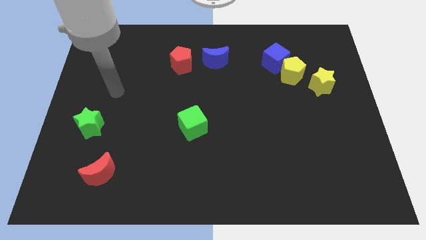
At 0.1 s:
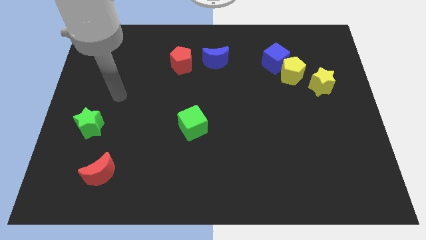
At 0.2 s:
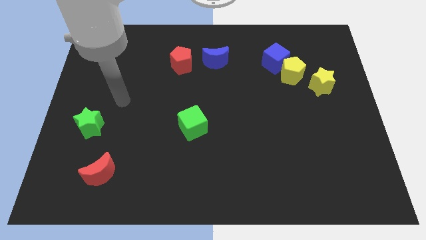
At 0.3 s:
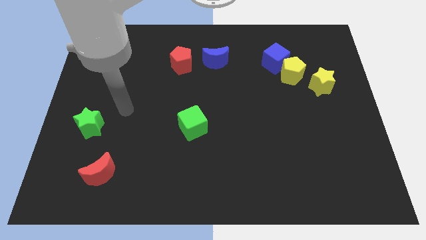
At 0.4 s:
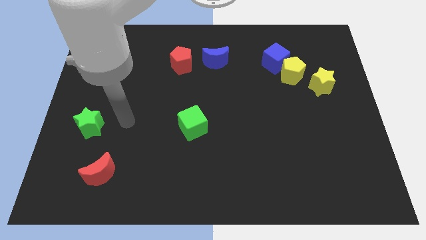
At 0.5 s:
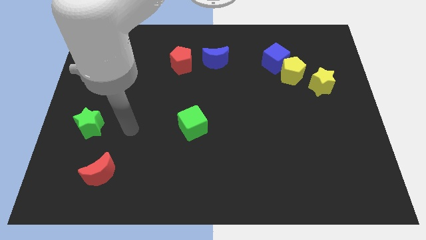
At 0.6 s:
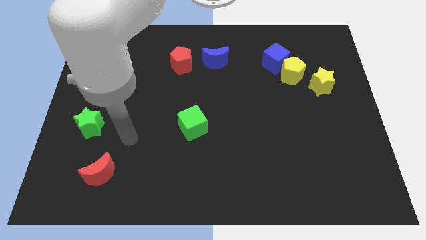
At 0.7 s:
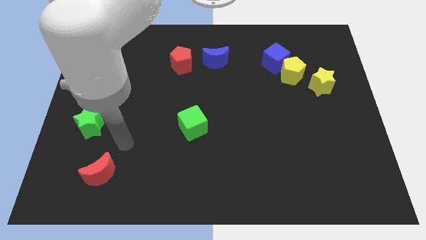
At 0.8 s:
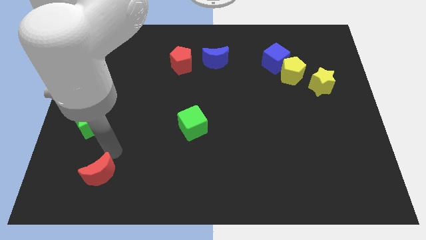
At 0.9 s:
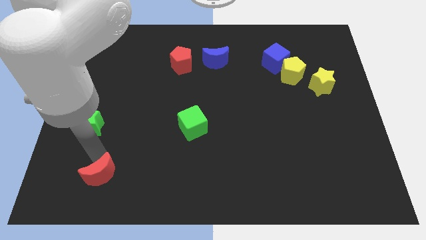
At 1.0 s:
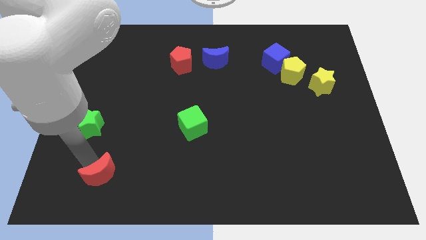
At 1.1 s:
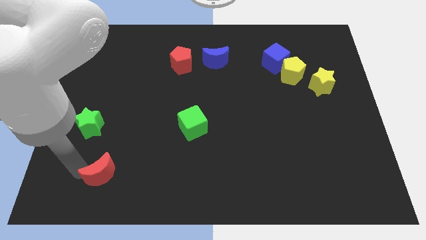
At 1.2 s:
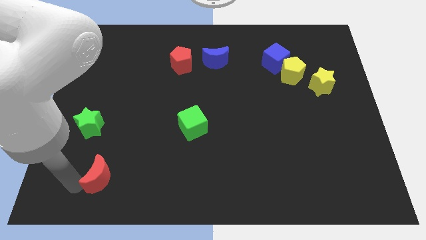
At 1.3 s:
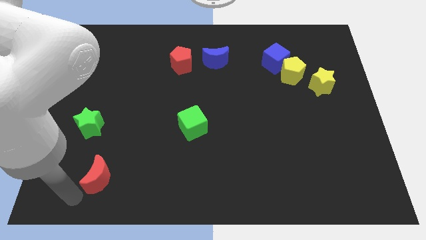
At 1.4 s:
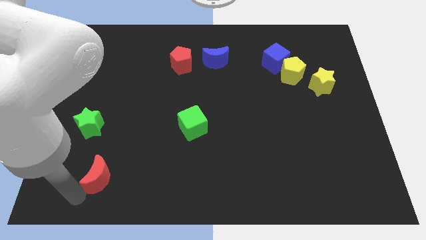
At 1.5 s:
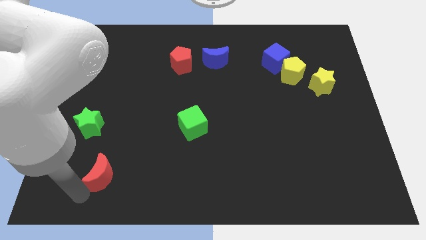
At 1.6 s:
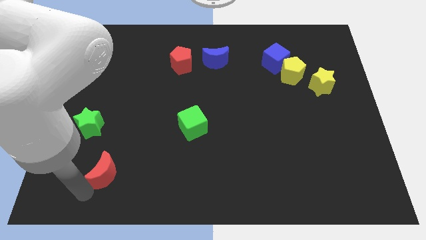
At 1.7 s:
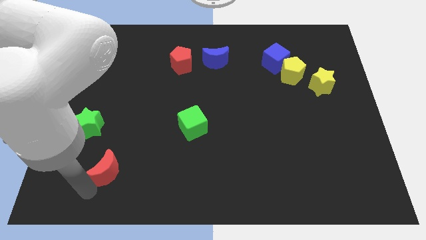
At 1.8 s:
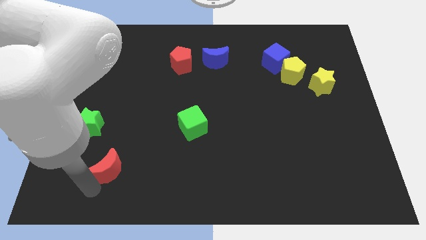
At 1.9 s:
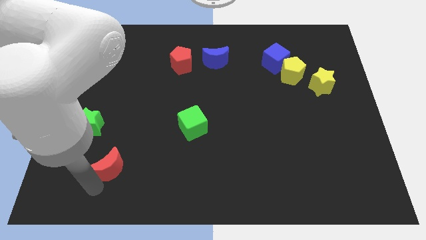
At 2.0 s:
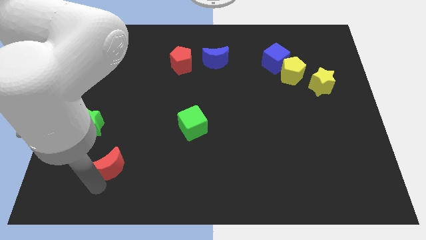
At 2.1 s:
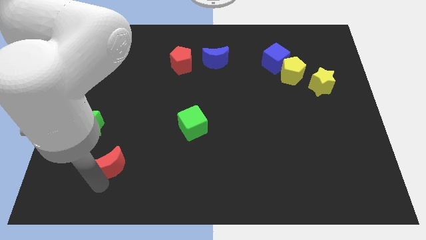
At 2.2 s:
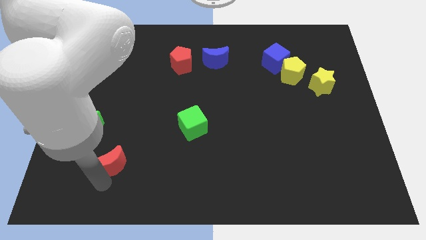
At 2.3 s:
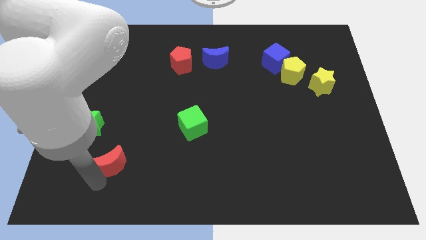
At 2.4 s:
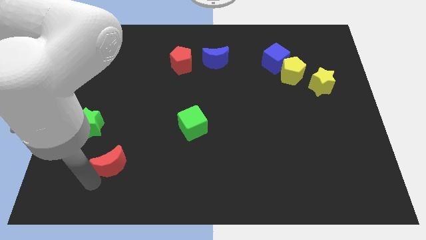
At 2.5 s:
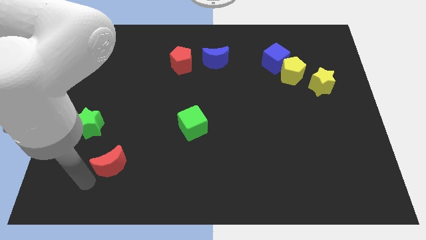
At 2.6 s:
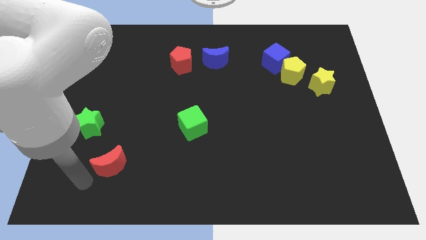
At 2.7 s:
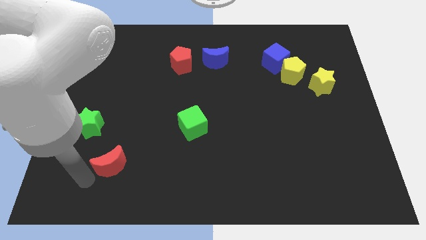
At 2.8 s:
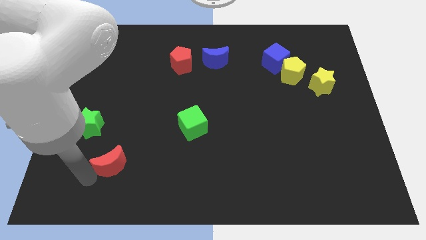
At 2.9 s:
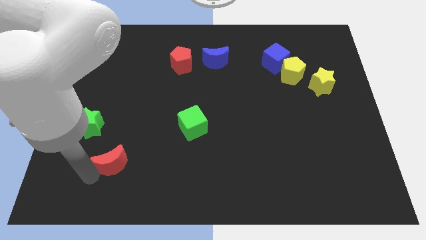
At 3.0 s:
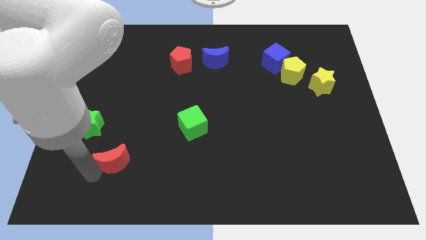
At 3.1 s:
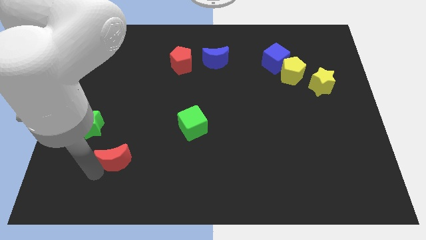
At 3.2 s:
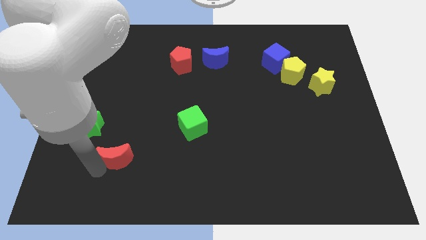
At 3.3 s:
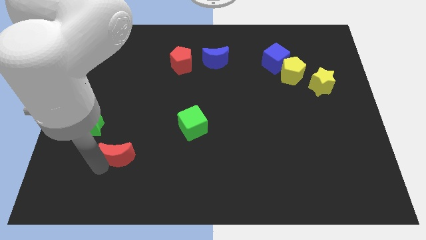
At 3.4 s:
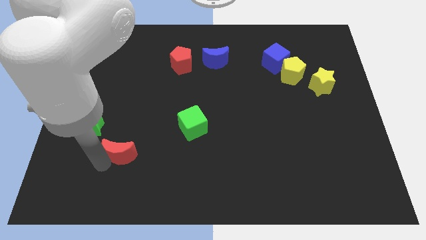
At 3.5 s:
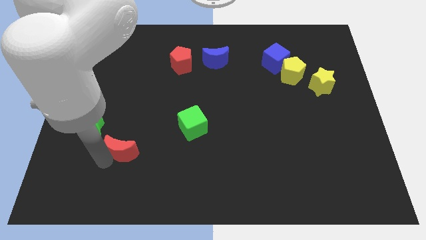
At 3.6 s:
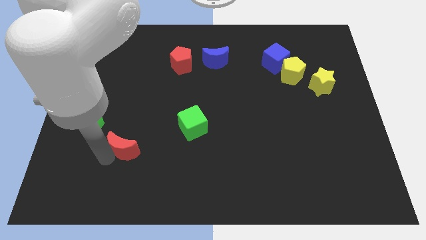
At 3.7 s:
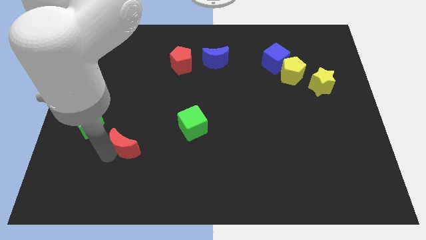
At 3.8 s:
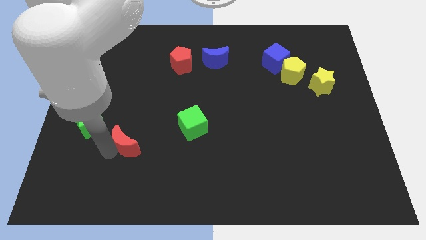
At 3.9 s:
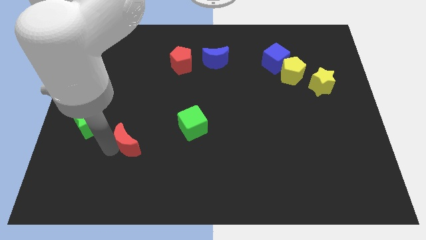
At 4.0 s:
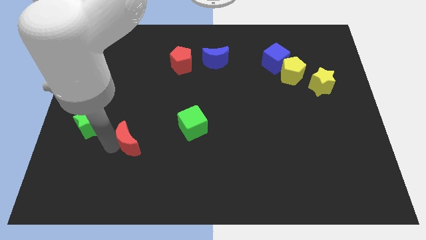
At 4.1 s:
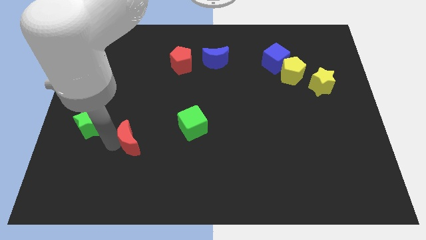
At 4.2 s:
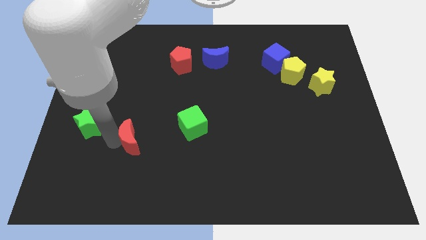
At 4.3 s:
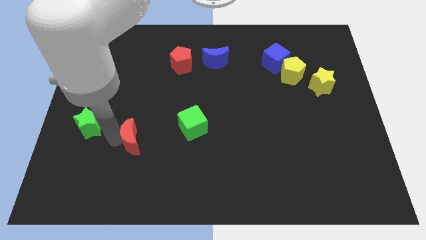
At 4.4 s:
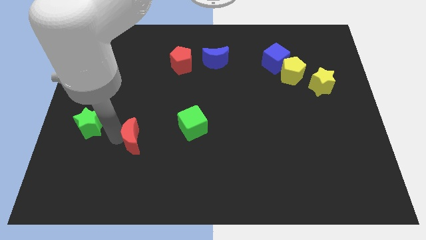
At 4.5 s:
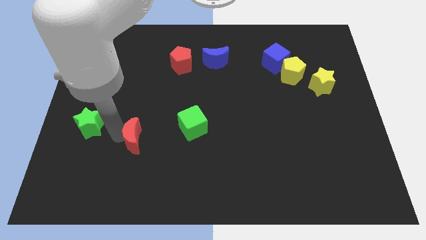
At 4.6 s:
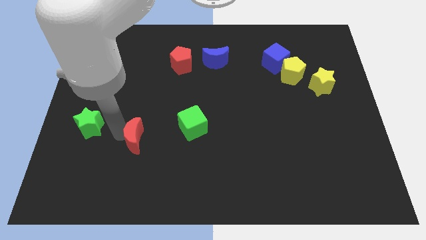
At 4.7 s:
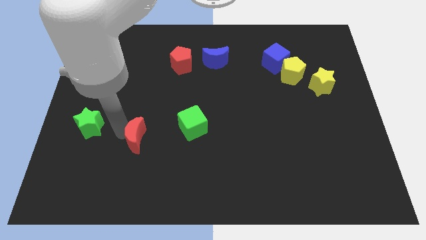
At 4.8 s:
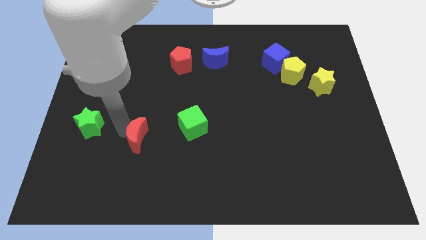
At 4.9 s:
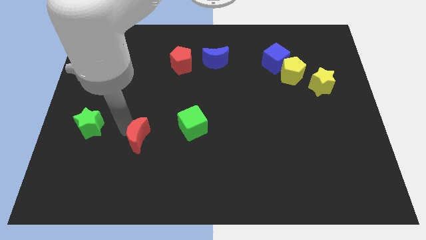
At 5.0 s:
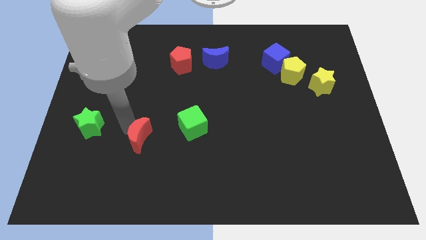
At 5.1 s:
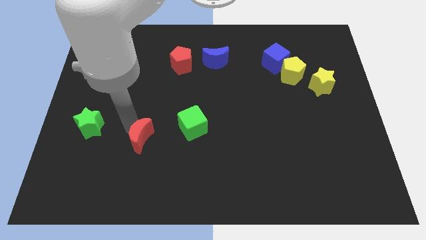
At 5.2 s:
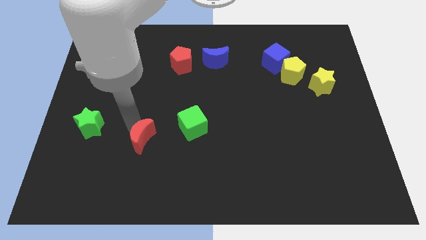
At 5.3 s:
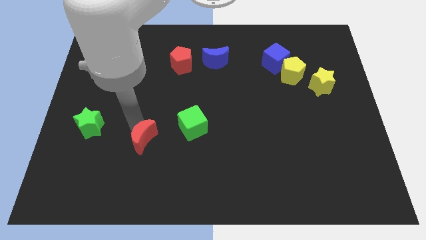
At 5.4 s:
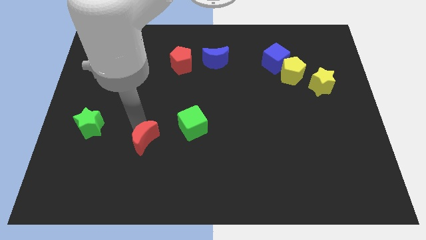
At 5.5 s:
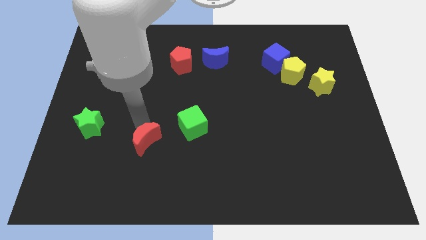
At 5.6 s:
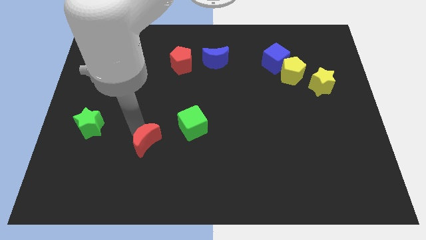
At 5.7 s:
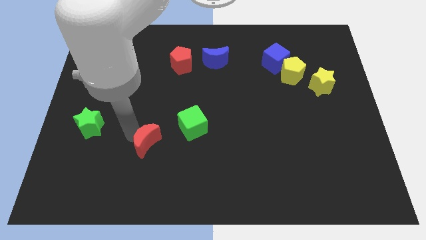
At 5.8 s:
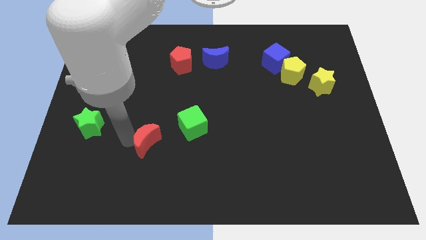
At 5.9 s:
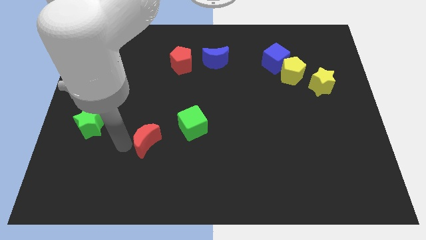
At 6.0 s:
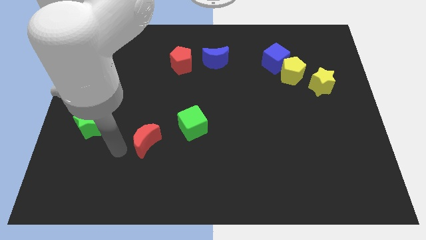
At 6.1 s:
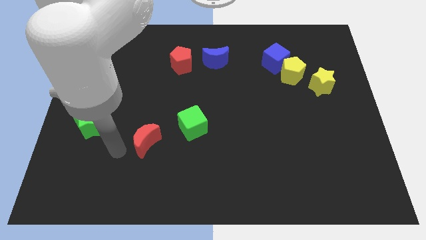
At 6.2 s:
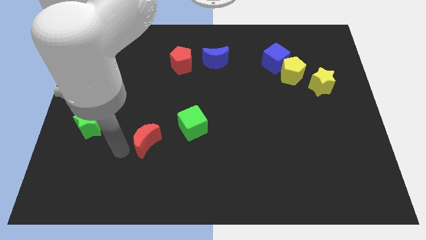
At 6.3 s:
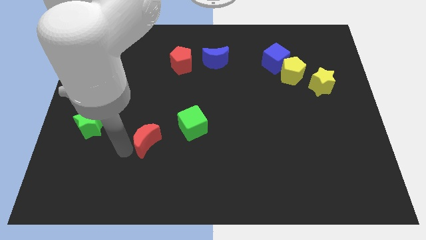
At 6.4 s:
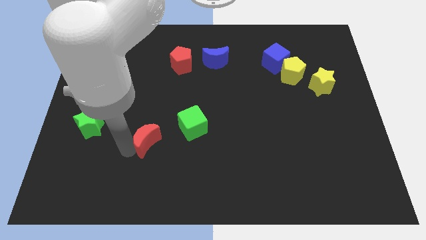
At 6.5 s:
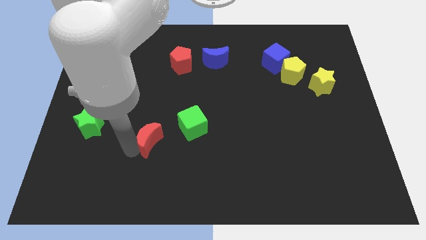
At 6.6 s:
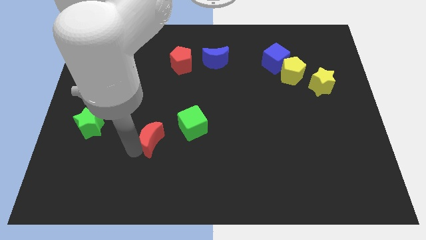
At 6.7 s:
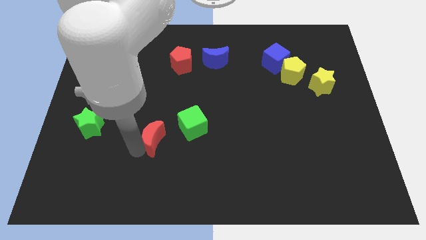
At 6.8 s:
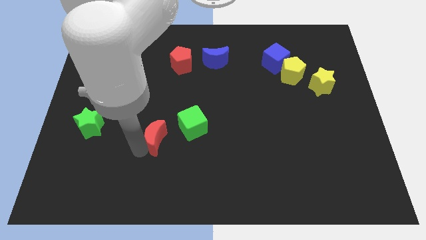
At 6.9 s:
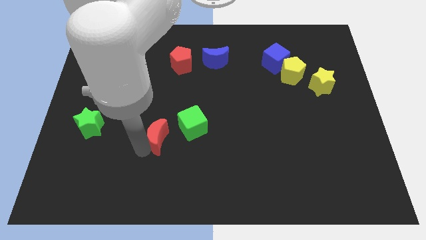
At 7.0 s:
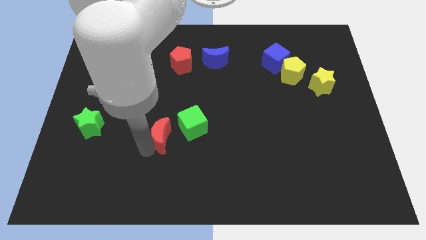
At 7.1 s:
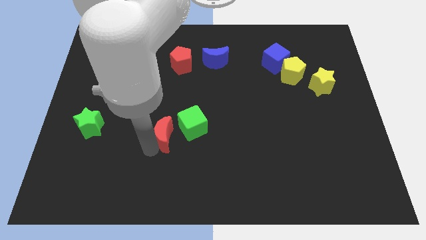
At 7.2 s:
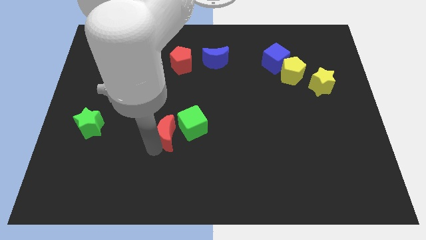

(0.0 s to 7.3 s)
push the red moon to the green cube

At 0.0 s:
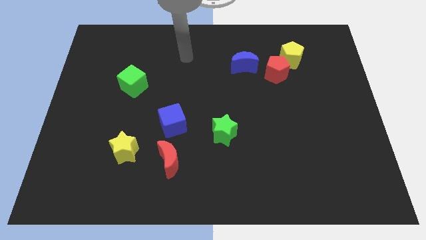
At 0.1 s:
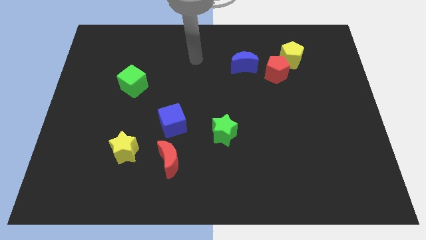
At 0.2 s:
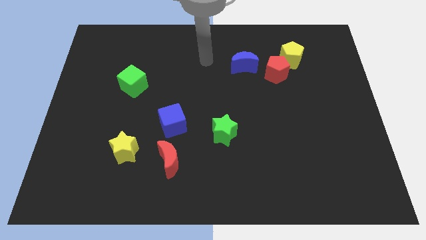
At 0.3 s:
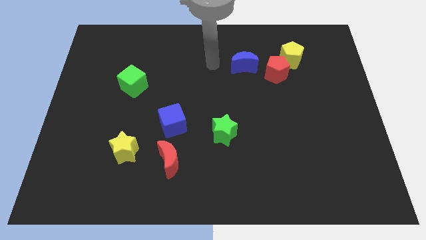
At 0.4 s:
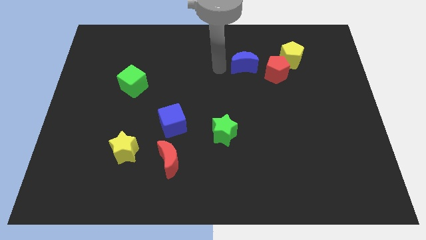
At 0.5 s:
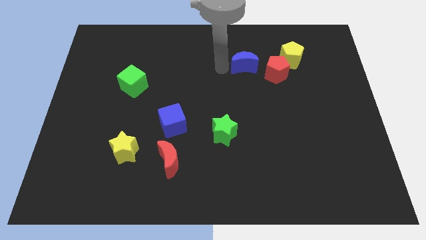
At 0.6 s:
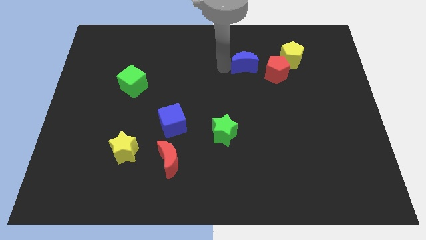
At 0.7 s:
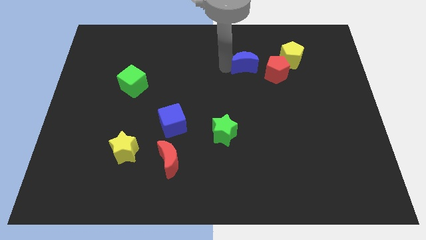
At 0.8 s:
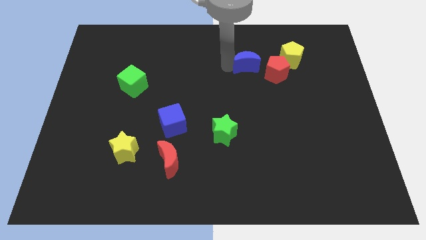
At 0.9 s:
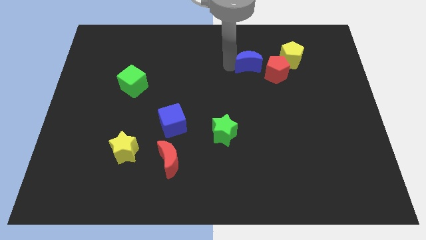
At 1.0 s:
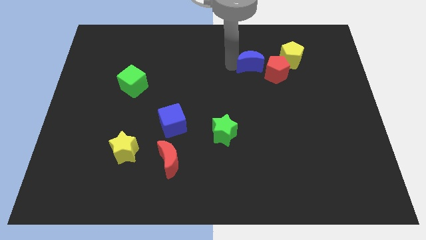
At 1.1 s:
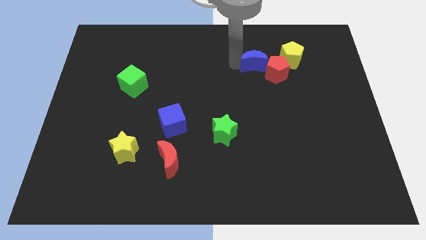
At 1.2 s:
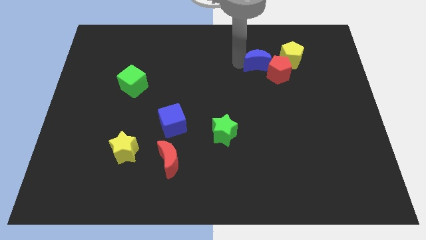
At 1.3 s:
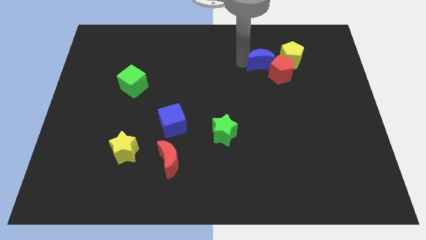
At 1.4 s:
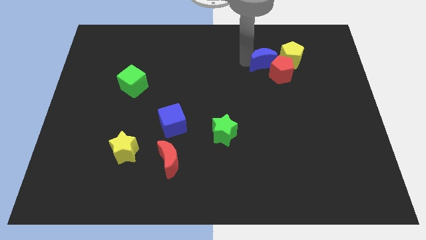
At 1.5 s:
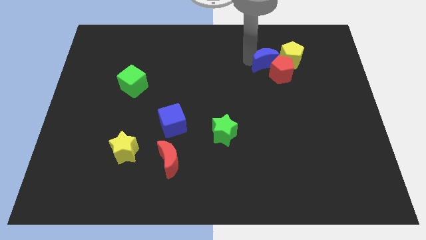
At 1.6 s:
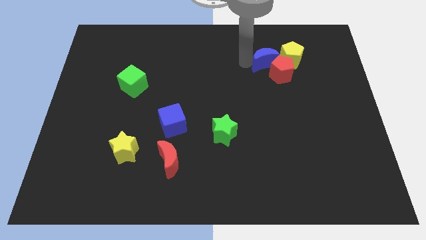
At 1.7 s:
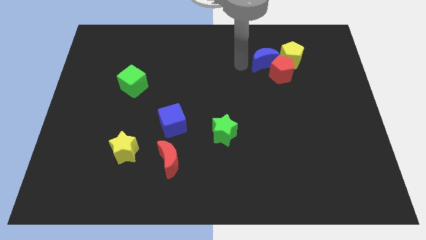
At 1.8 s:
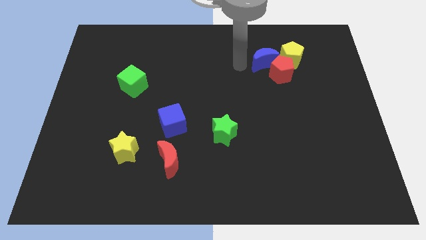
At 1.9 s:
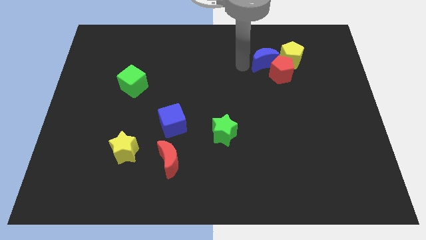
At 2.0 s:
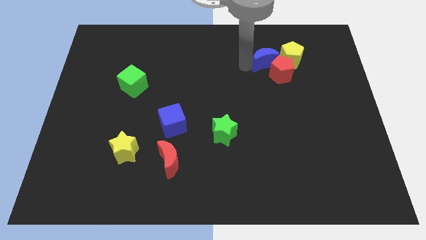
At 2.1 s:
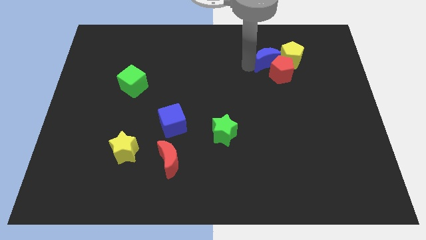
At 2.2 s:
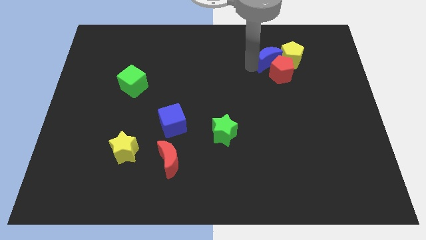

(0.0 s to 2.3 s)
slide the blue moon close to the yellow pentagon
